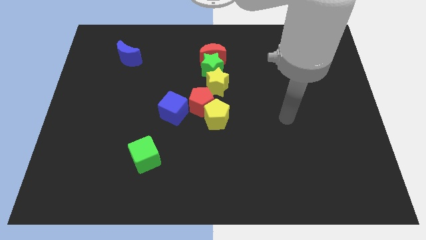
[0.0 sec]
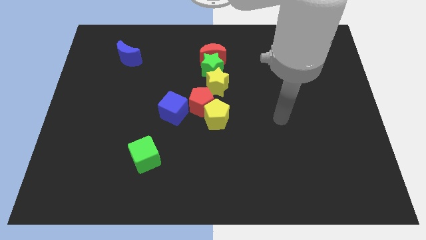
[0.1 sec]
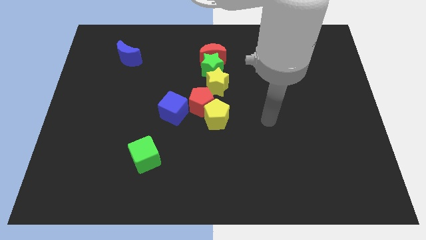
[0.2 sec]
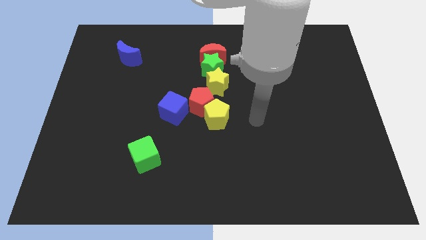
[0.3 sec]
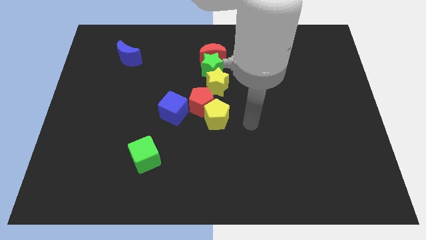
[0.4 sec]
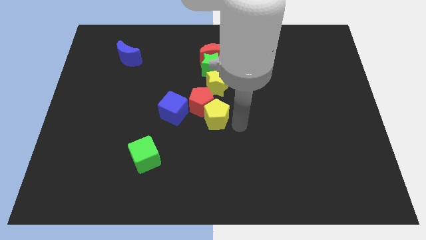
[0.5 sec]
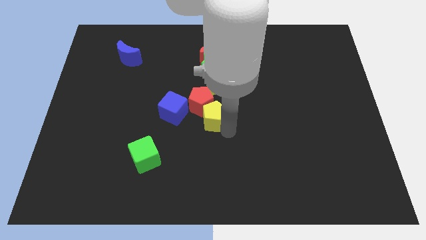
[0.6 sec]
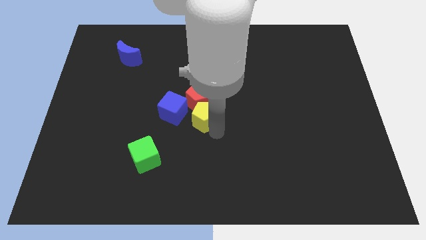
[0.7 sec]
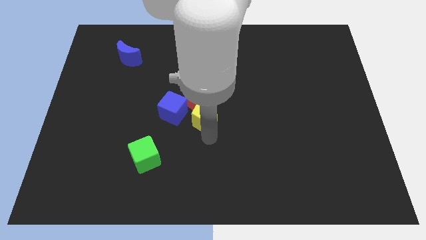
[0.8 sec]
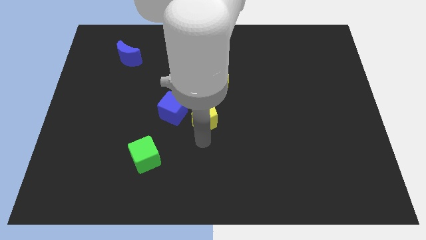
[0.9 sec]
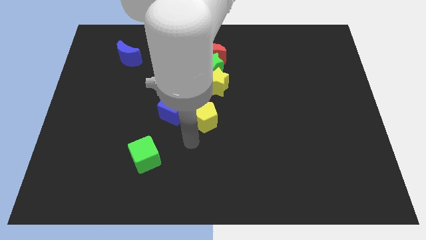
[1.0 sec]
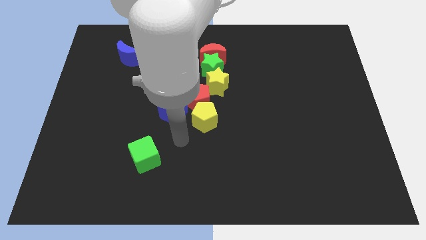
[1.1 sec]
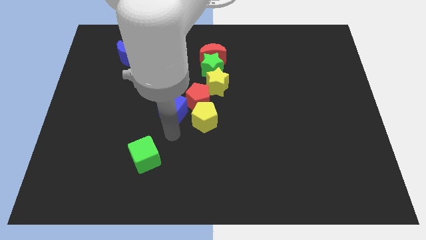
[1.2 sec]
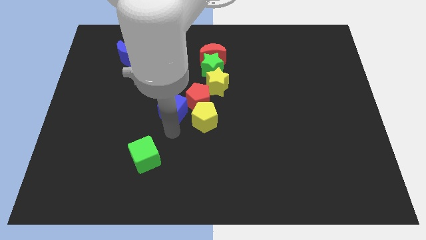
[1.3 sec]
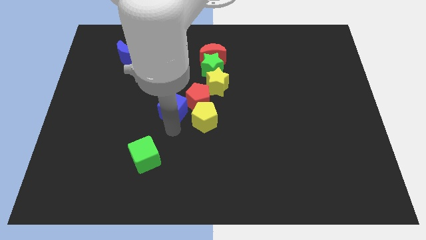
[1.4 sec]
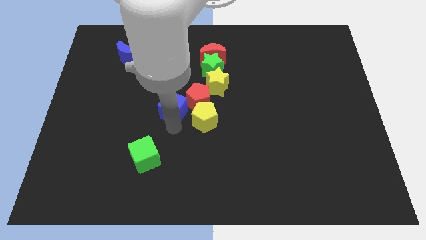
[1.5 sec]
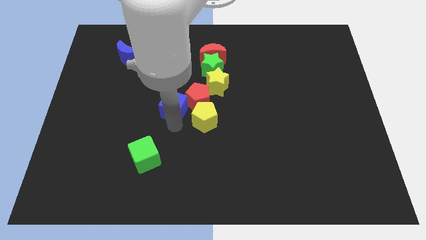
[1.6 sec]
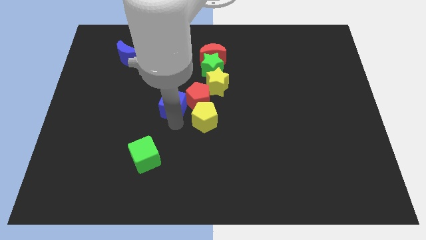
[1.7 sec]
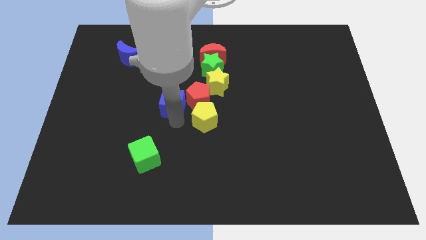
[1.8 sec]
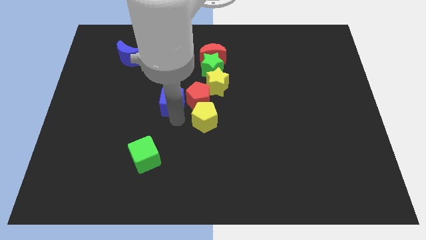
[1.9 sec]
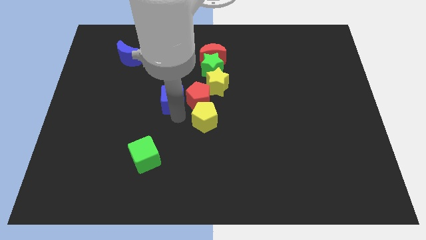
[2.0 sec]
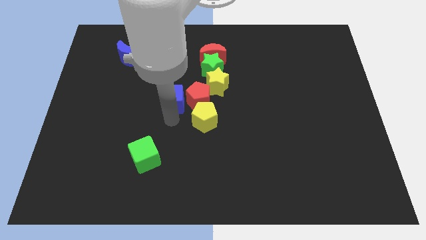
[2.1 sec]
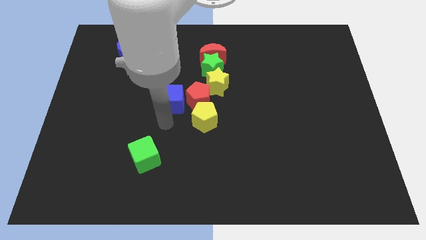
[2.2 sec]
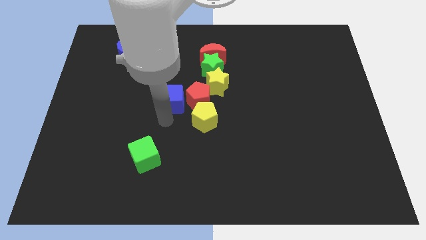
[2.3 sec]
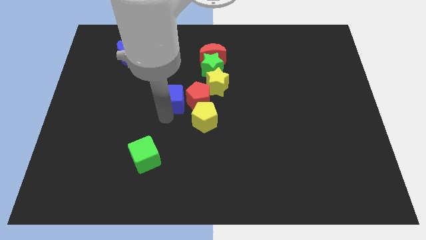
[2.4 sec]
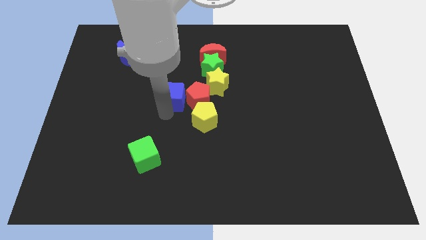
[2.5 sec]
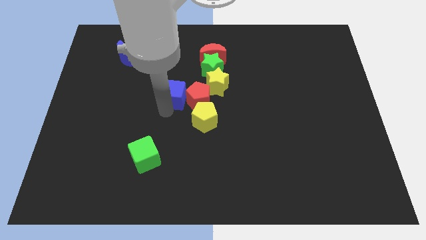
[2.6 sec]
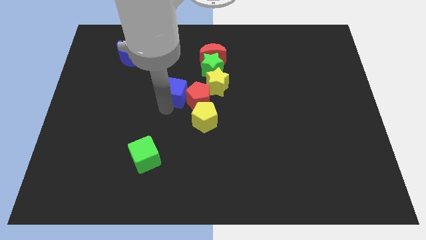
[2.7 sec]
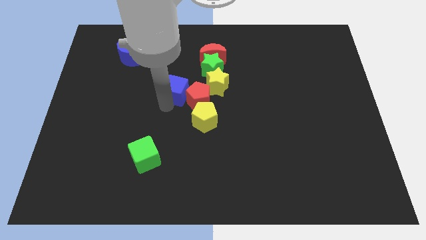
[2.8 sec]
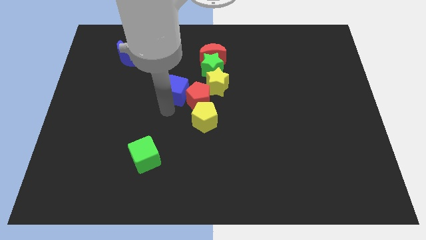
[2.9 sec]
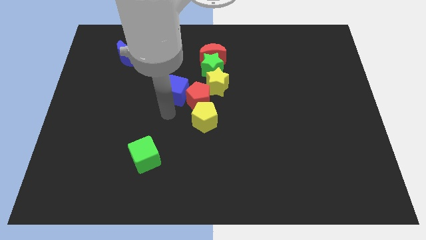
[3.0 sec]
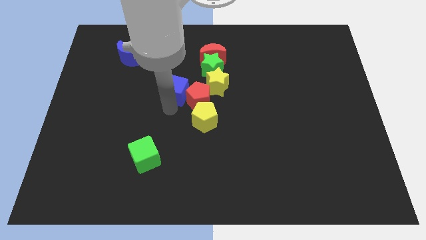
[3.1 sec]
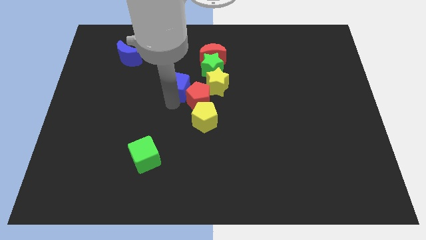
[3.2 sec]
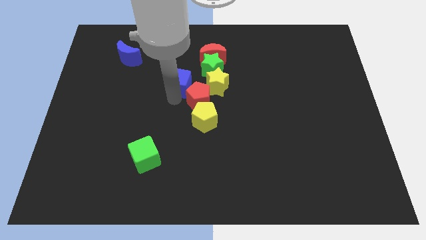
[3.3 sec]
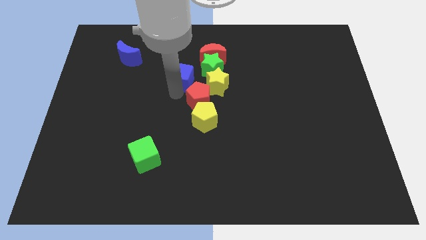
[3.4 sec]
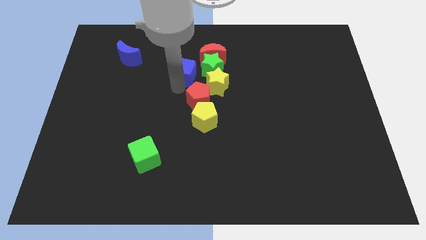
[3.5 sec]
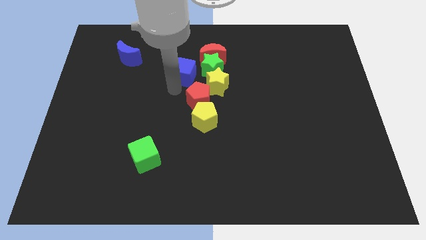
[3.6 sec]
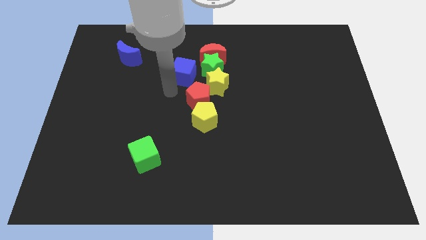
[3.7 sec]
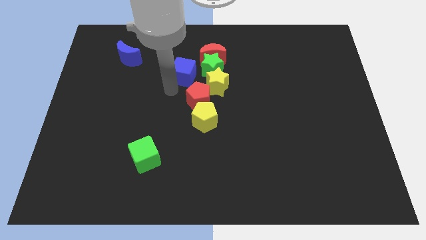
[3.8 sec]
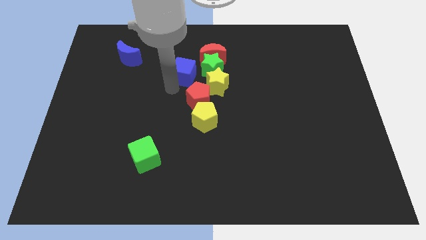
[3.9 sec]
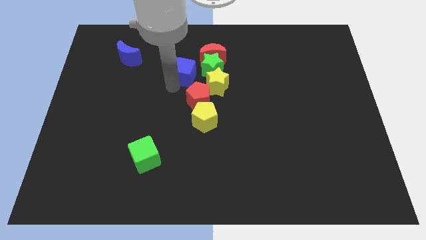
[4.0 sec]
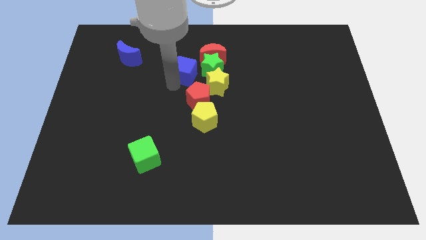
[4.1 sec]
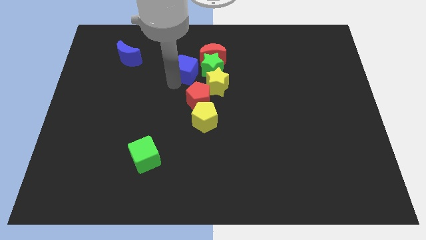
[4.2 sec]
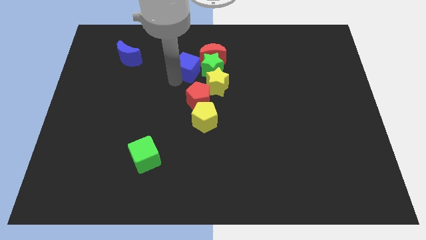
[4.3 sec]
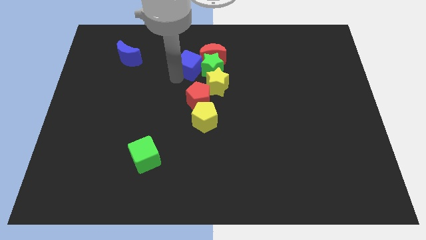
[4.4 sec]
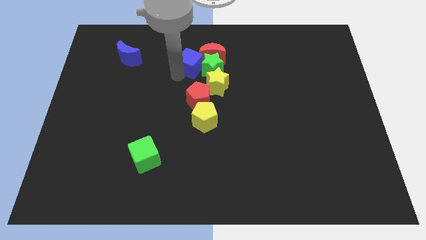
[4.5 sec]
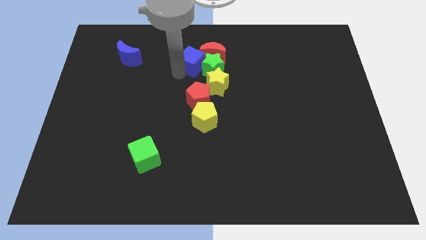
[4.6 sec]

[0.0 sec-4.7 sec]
move the blue cube next to the red moon

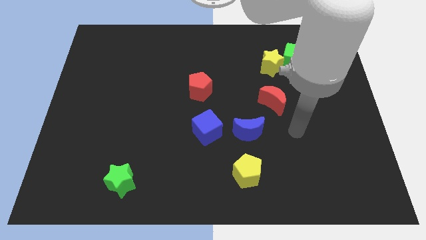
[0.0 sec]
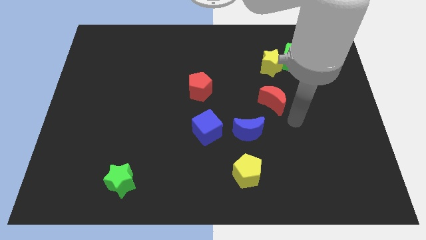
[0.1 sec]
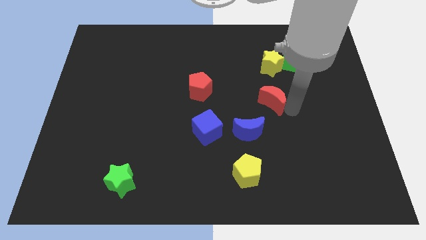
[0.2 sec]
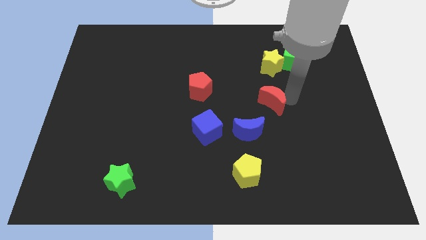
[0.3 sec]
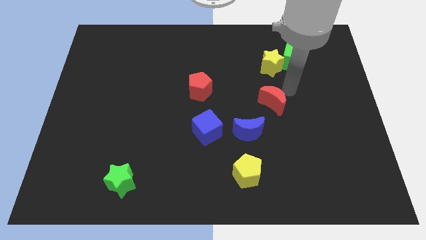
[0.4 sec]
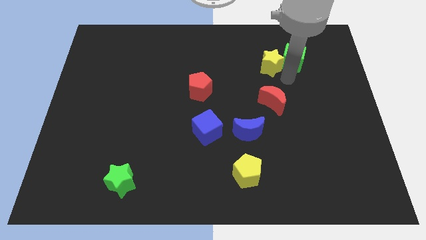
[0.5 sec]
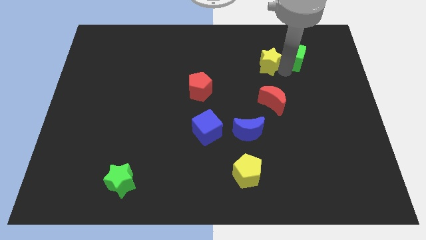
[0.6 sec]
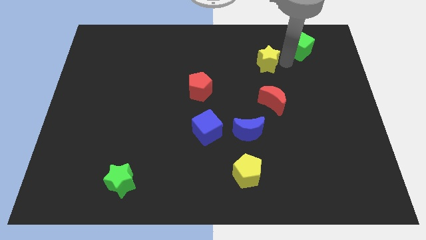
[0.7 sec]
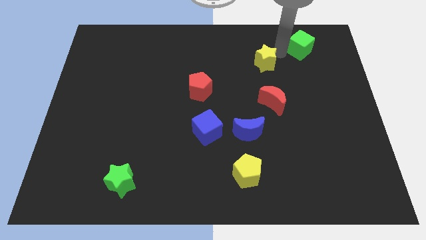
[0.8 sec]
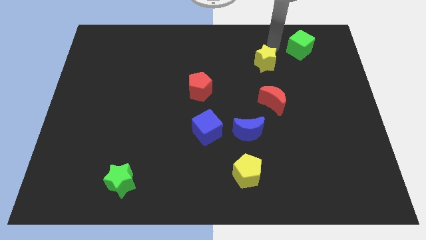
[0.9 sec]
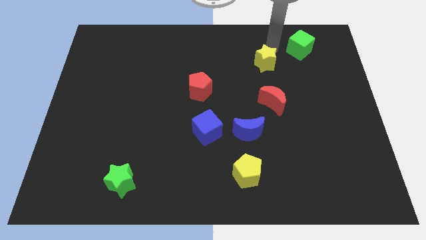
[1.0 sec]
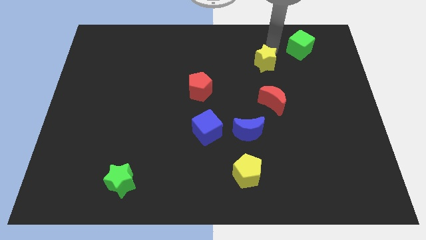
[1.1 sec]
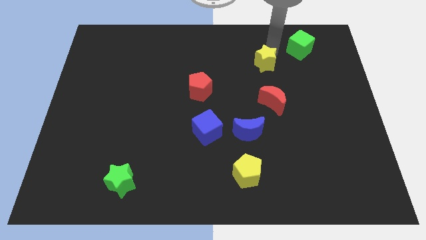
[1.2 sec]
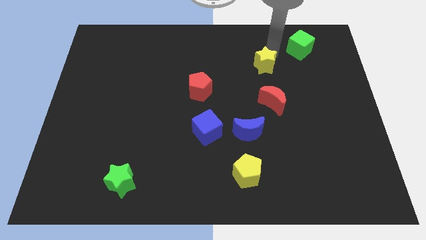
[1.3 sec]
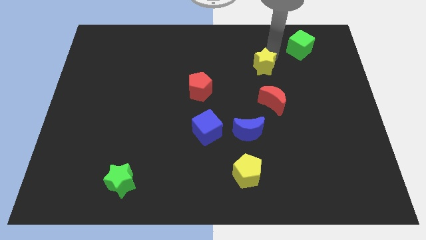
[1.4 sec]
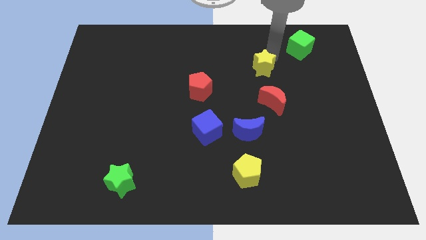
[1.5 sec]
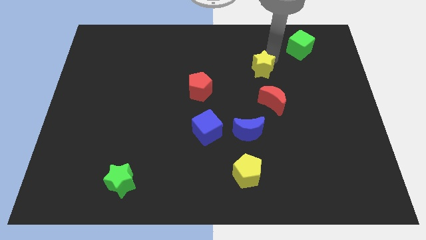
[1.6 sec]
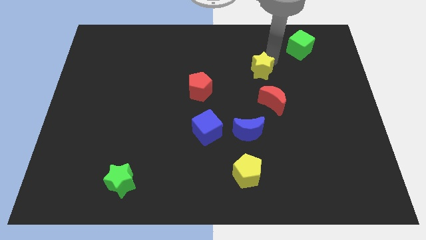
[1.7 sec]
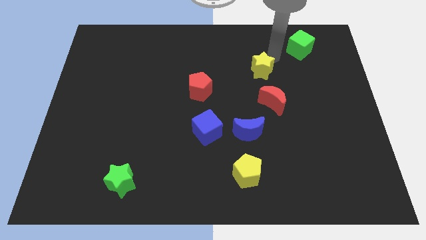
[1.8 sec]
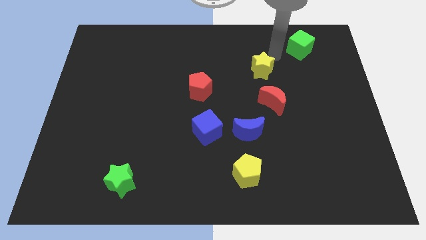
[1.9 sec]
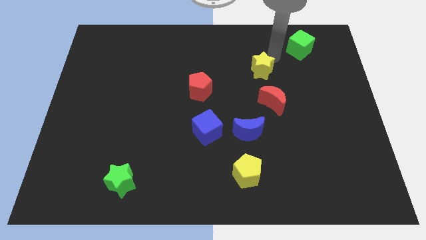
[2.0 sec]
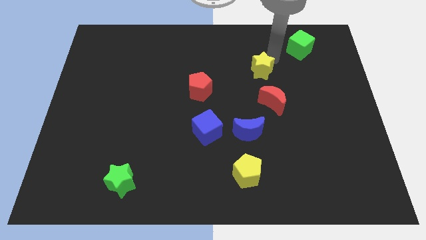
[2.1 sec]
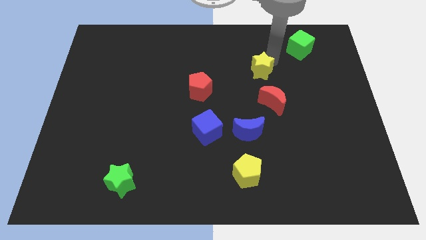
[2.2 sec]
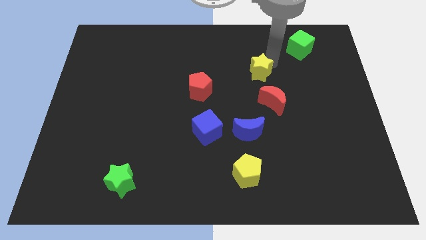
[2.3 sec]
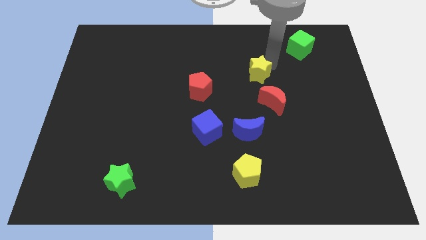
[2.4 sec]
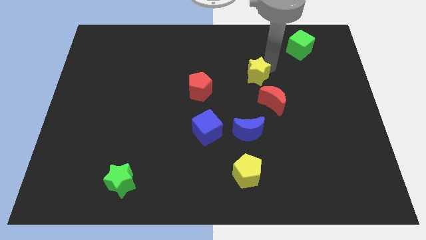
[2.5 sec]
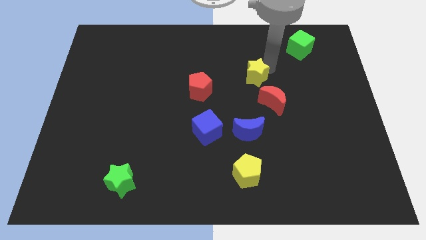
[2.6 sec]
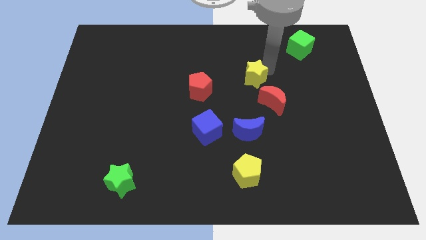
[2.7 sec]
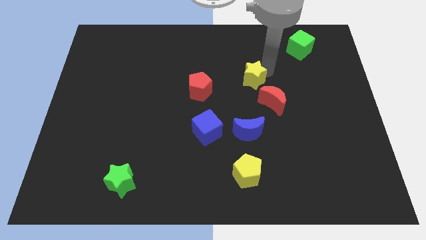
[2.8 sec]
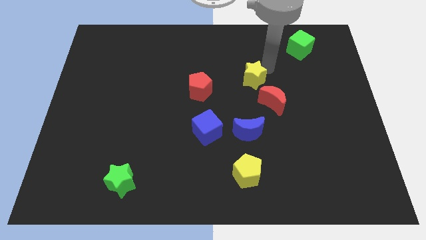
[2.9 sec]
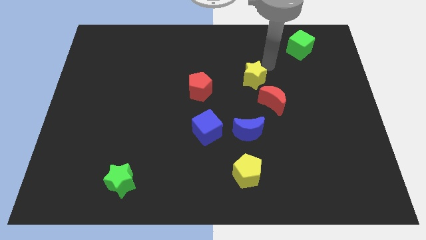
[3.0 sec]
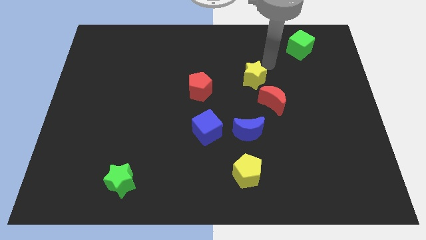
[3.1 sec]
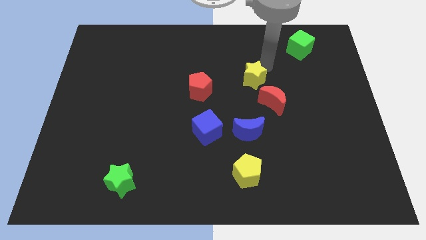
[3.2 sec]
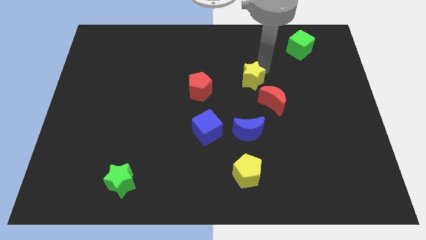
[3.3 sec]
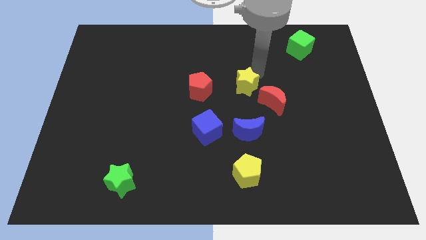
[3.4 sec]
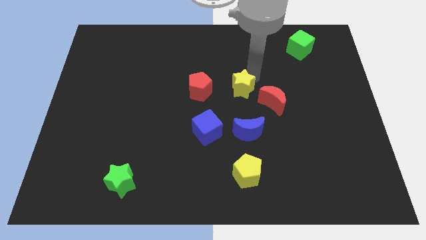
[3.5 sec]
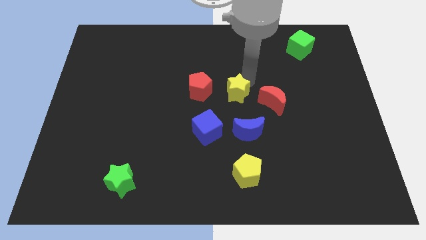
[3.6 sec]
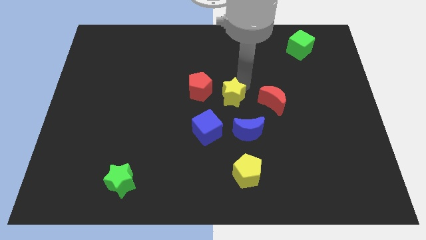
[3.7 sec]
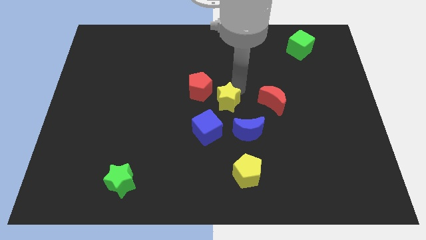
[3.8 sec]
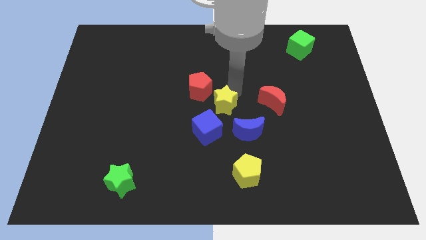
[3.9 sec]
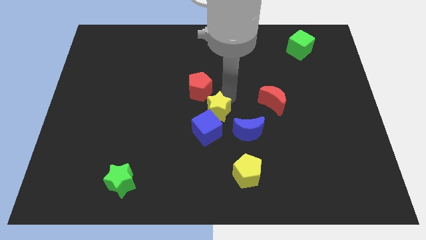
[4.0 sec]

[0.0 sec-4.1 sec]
push the yellow star close to the blue cube
